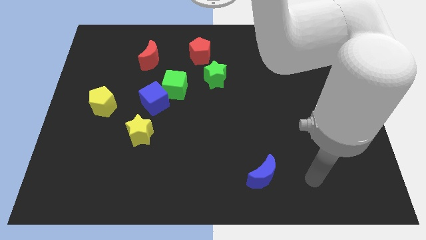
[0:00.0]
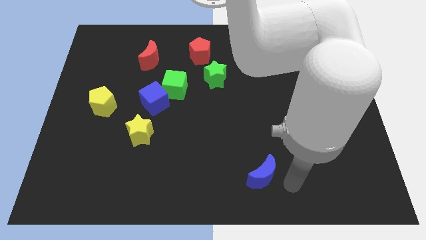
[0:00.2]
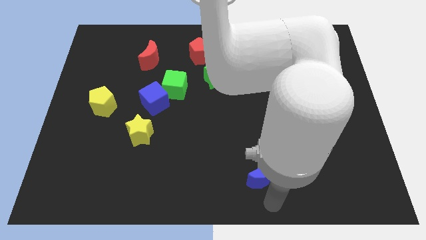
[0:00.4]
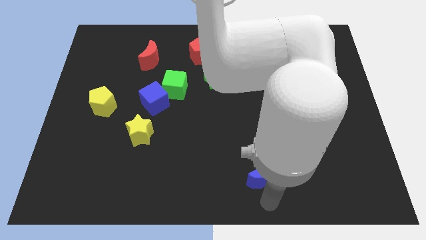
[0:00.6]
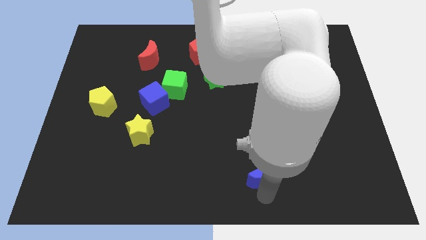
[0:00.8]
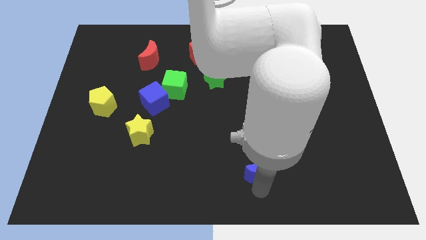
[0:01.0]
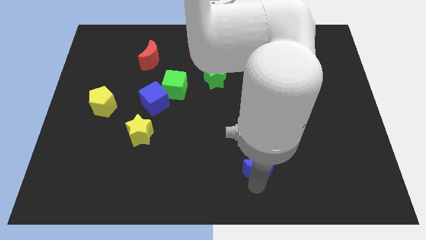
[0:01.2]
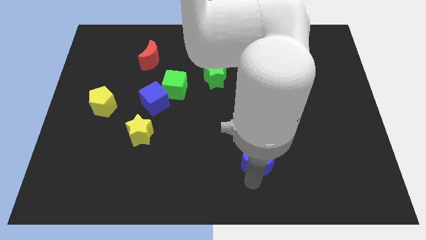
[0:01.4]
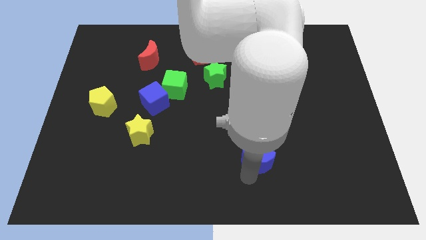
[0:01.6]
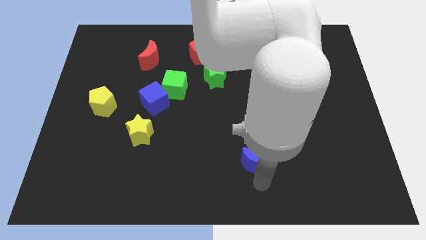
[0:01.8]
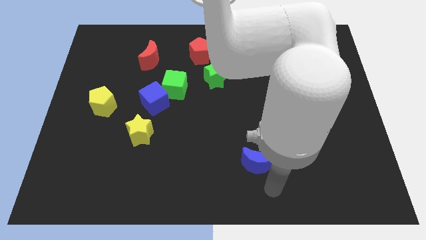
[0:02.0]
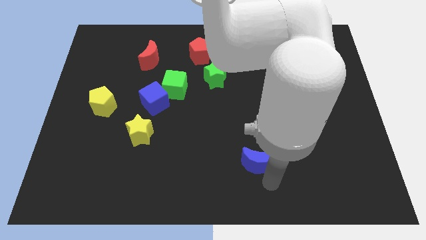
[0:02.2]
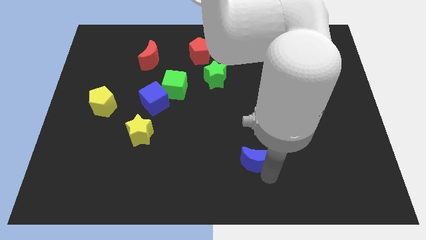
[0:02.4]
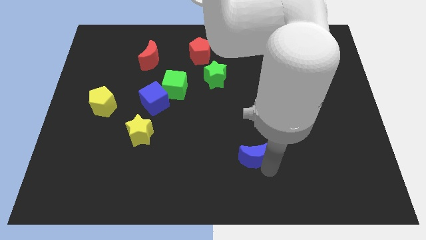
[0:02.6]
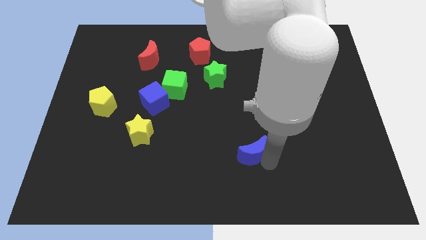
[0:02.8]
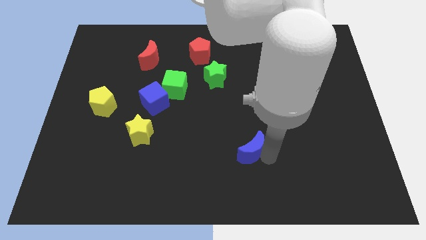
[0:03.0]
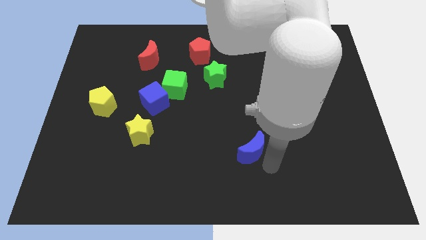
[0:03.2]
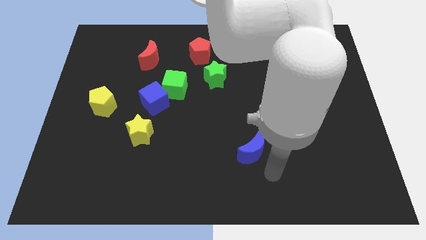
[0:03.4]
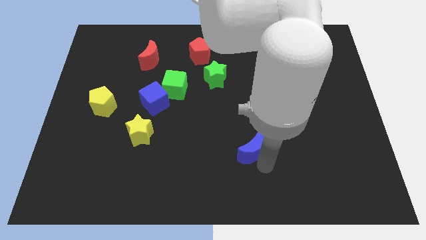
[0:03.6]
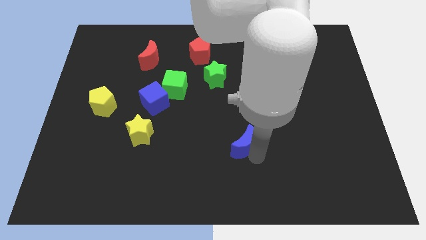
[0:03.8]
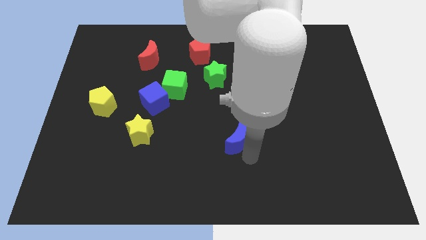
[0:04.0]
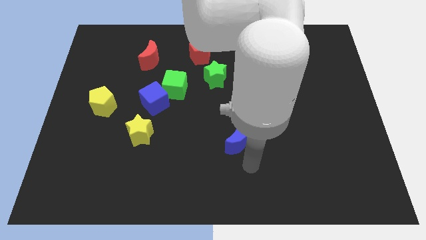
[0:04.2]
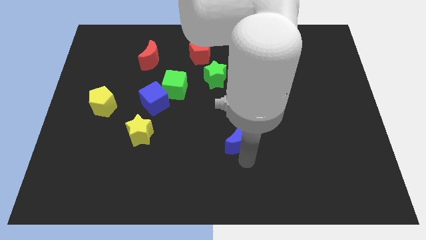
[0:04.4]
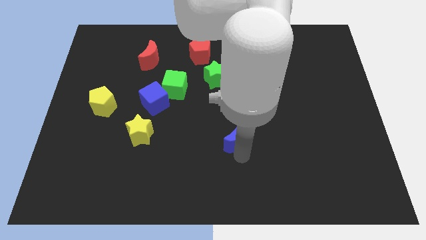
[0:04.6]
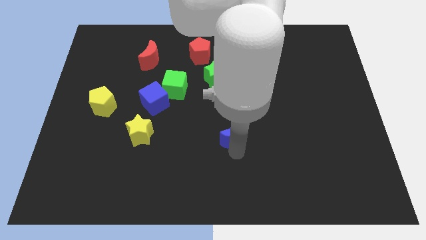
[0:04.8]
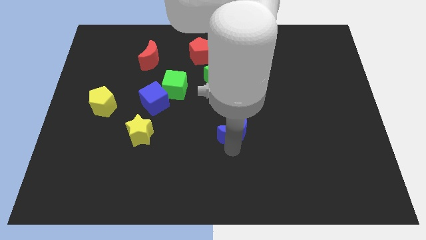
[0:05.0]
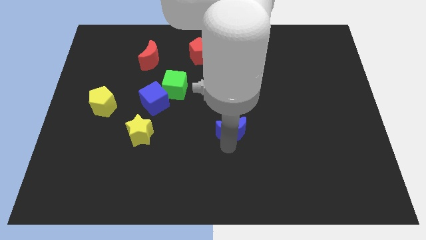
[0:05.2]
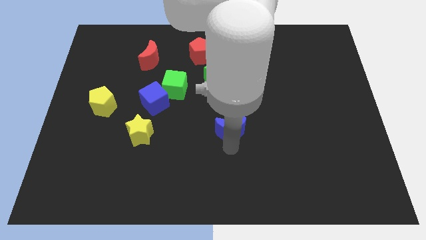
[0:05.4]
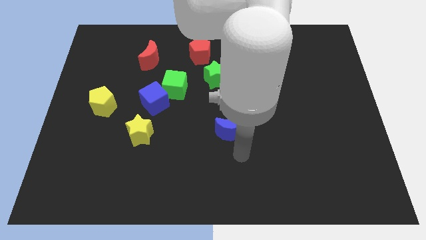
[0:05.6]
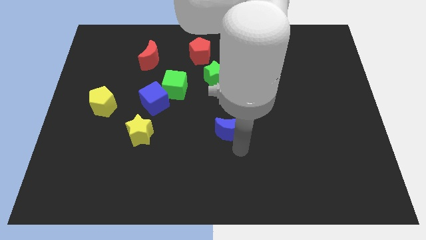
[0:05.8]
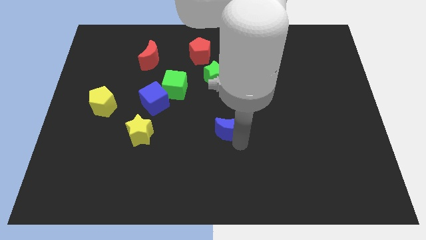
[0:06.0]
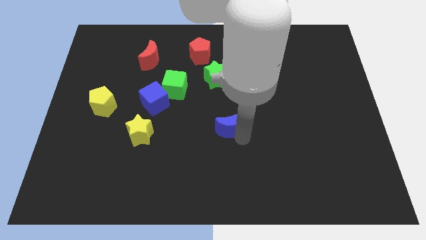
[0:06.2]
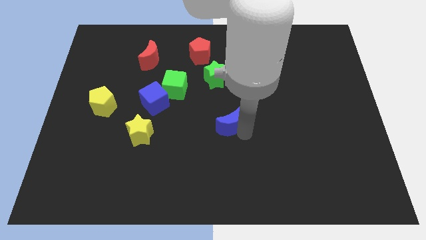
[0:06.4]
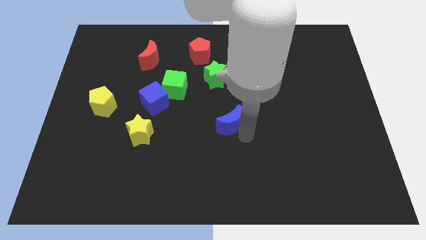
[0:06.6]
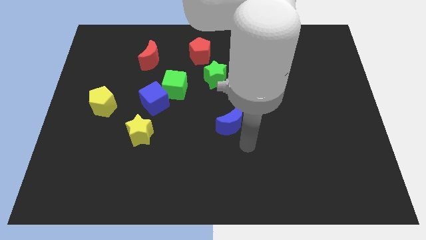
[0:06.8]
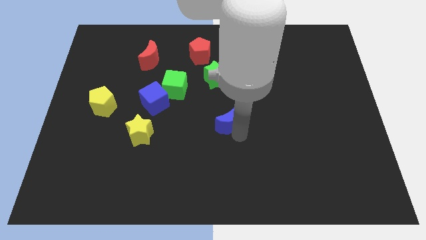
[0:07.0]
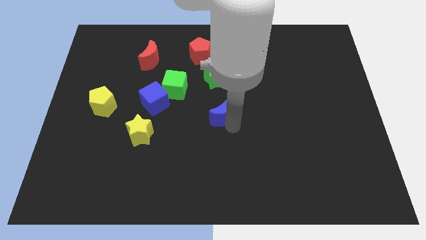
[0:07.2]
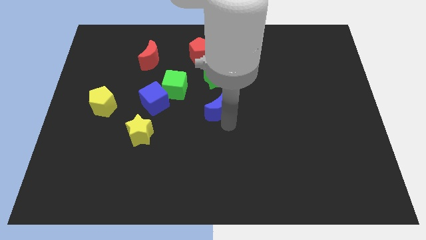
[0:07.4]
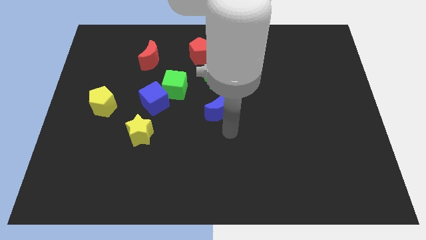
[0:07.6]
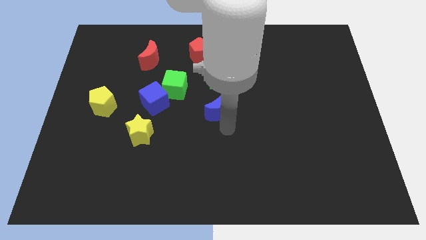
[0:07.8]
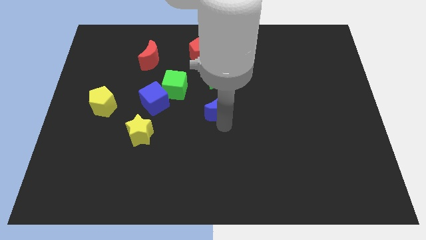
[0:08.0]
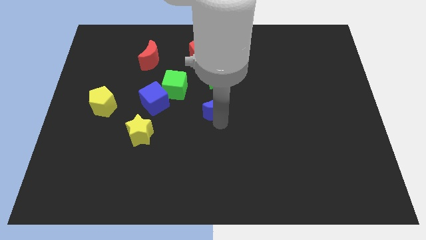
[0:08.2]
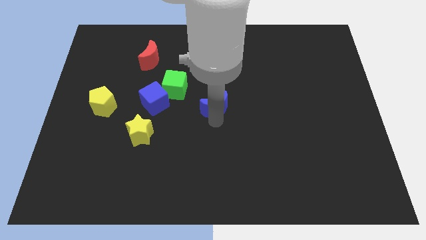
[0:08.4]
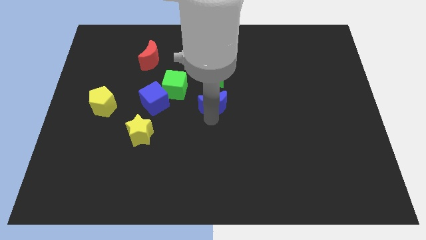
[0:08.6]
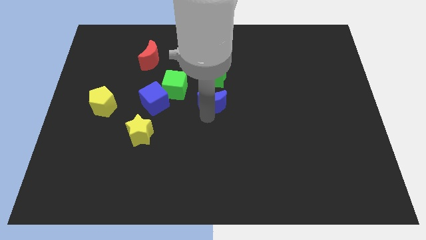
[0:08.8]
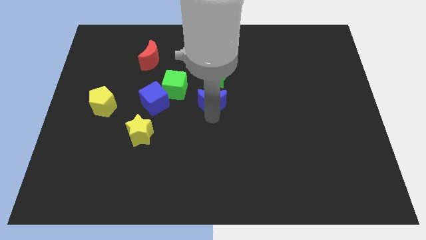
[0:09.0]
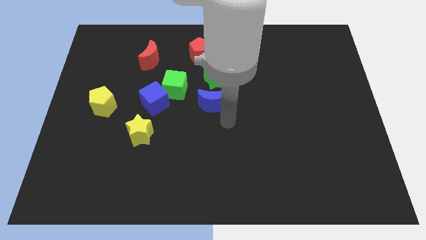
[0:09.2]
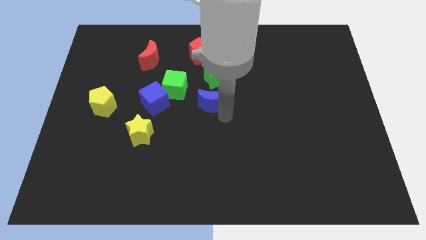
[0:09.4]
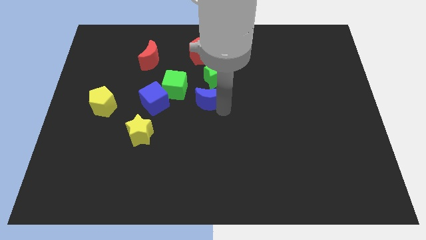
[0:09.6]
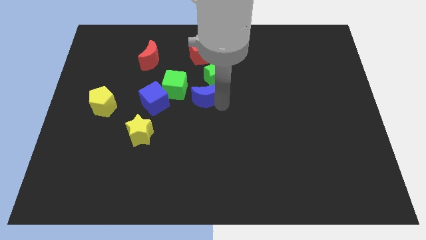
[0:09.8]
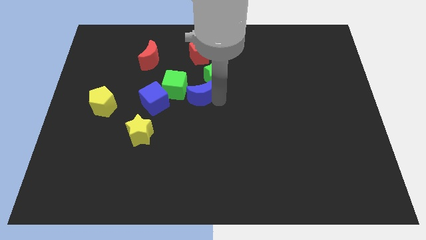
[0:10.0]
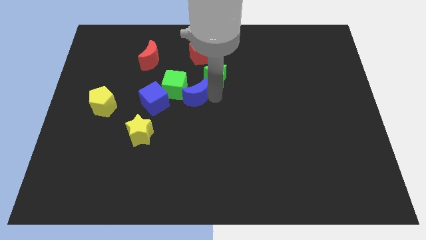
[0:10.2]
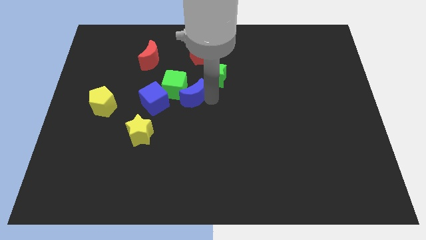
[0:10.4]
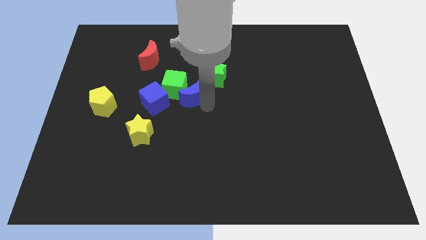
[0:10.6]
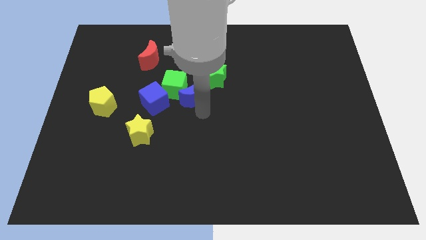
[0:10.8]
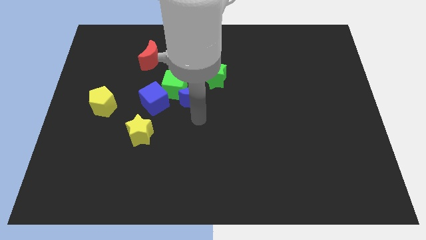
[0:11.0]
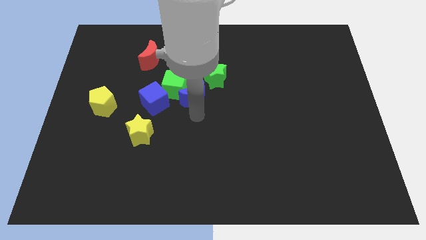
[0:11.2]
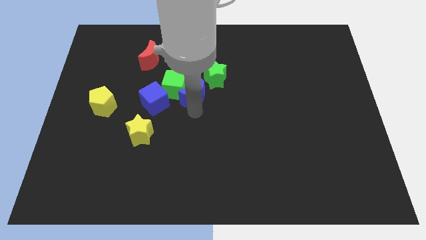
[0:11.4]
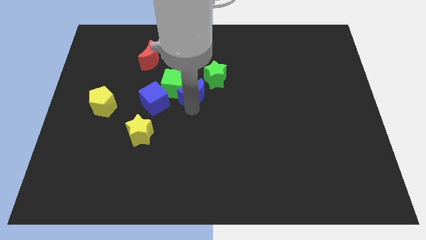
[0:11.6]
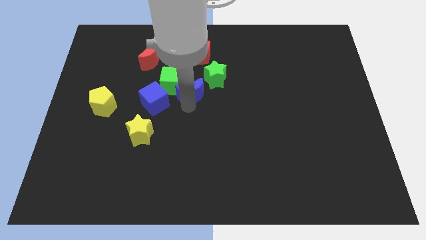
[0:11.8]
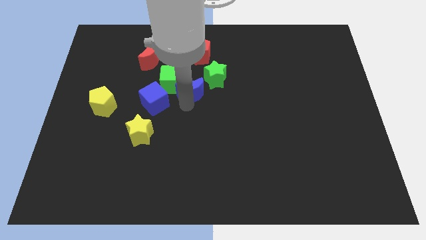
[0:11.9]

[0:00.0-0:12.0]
push the blue moon to the left side of the green star
